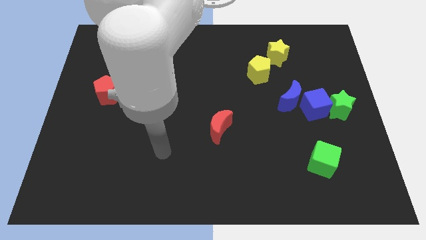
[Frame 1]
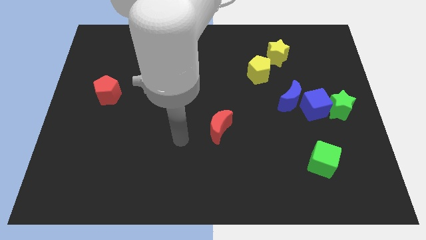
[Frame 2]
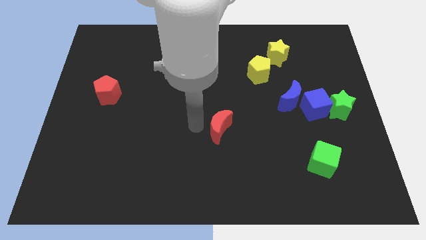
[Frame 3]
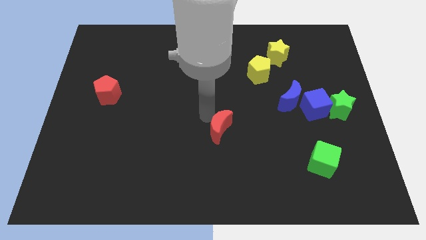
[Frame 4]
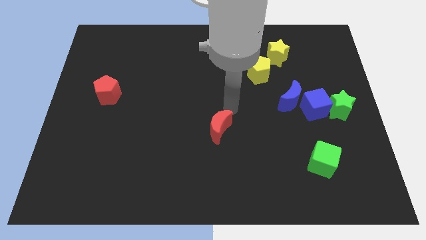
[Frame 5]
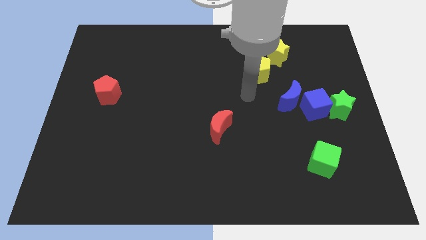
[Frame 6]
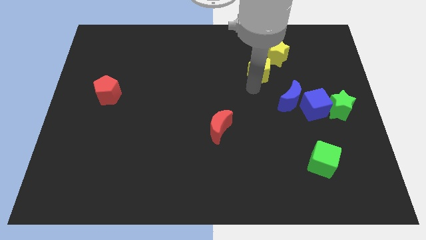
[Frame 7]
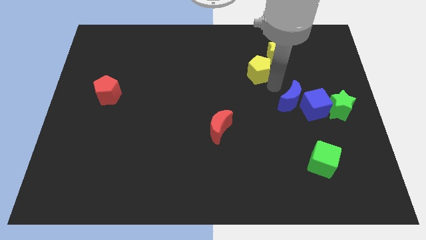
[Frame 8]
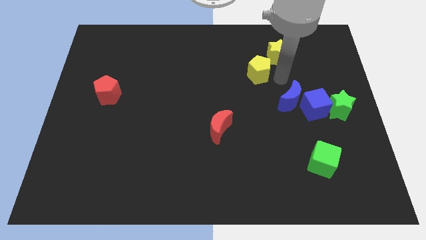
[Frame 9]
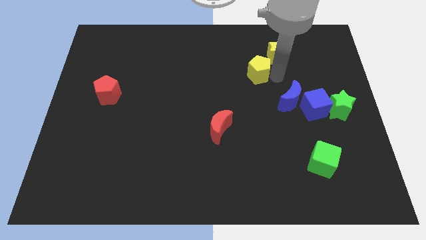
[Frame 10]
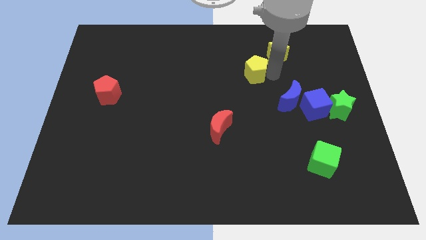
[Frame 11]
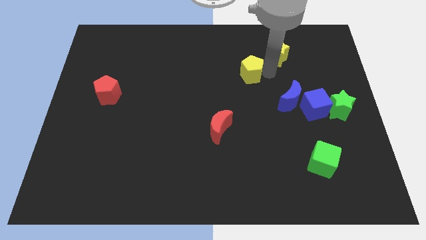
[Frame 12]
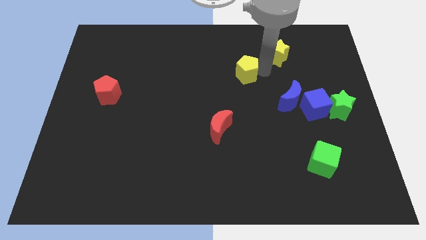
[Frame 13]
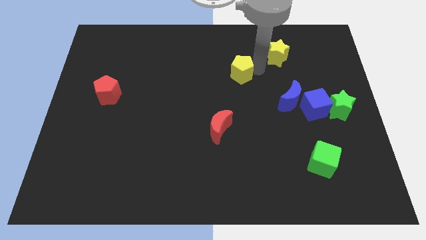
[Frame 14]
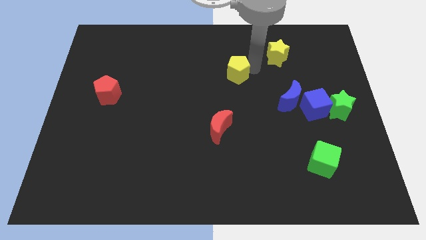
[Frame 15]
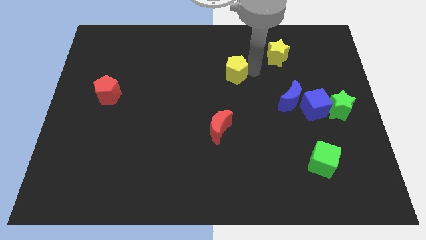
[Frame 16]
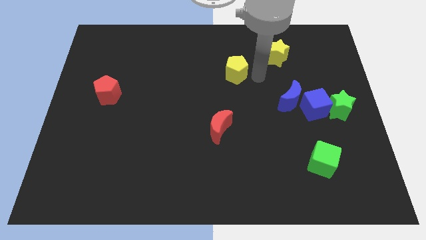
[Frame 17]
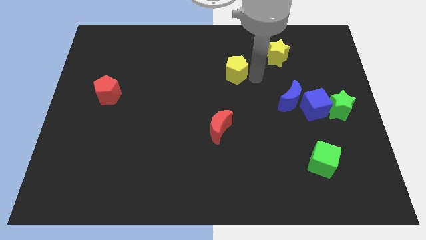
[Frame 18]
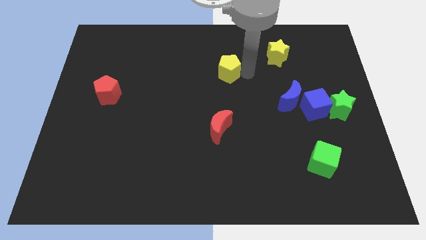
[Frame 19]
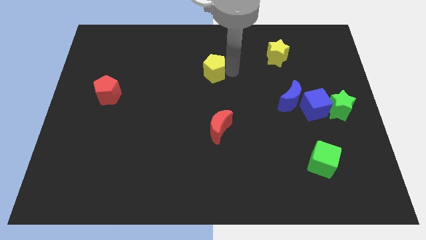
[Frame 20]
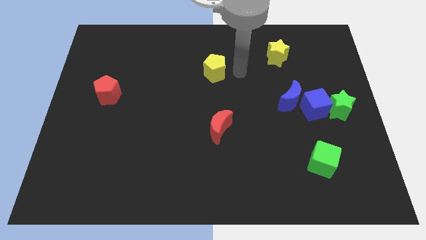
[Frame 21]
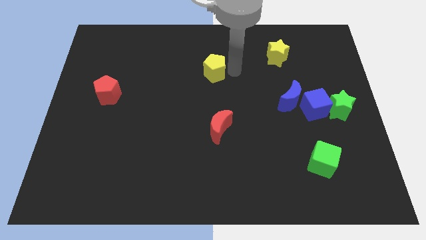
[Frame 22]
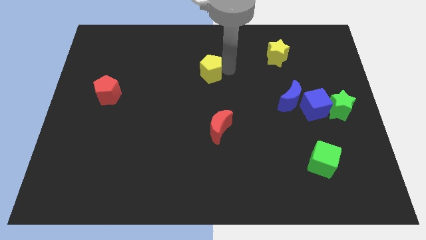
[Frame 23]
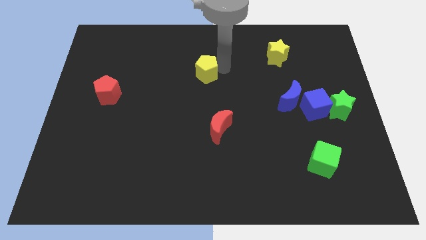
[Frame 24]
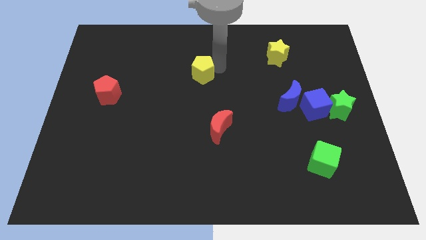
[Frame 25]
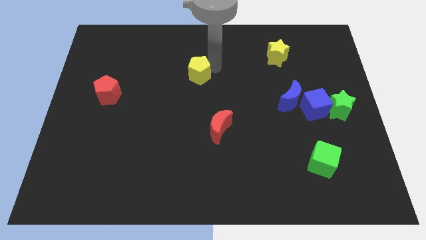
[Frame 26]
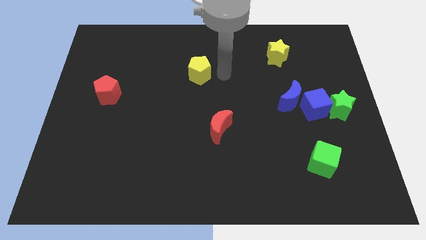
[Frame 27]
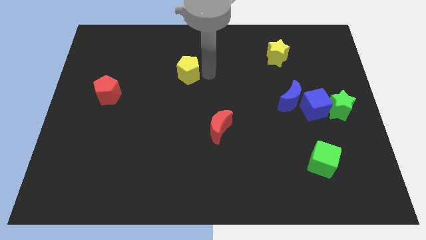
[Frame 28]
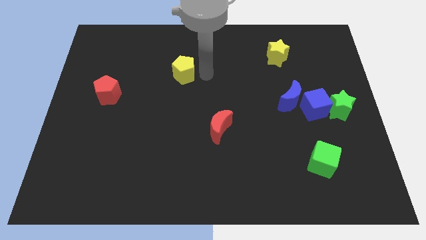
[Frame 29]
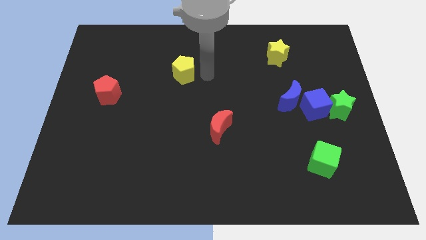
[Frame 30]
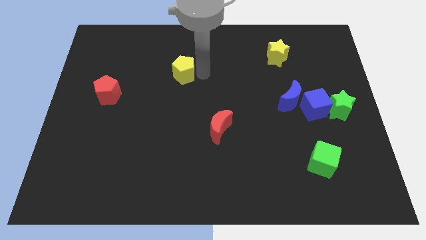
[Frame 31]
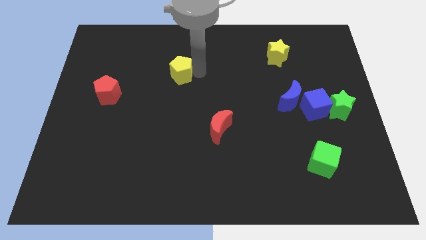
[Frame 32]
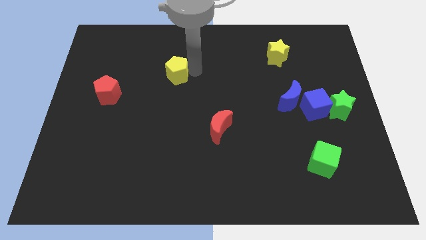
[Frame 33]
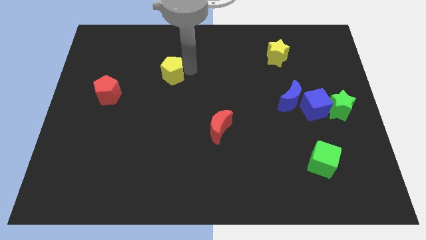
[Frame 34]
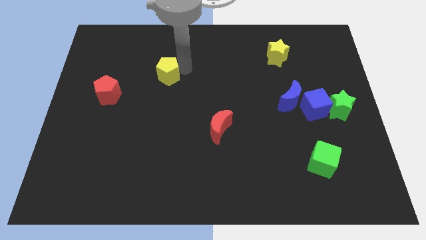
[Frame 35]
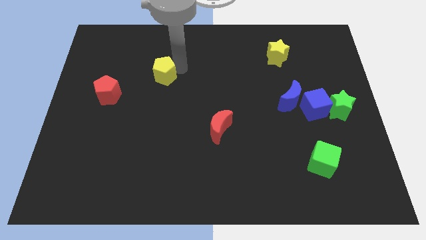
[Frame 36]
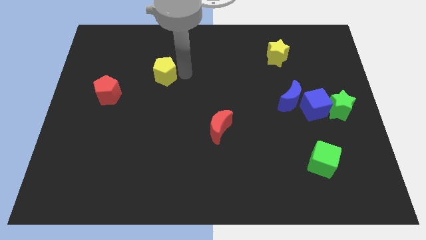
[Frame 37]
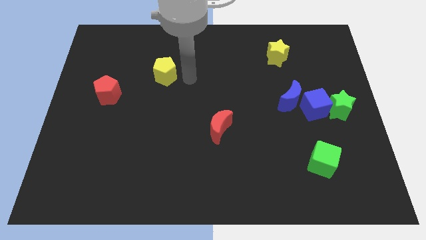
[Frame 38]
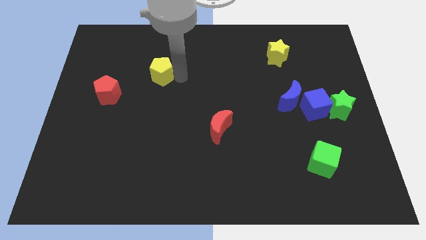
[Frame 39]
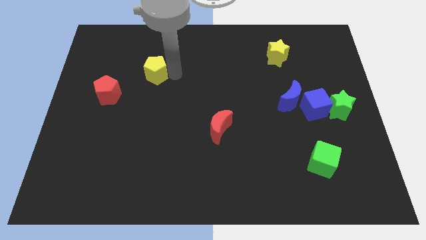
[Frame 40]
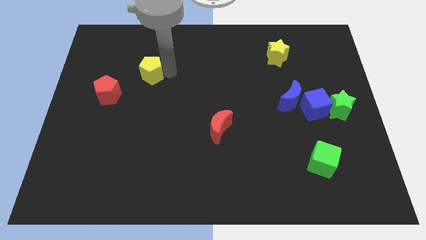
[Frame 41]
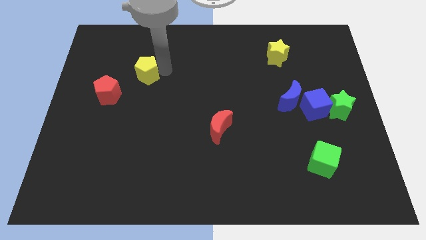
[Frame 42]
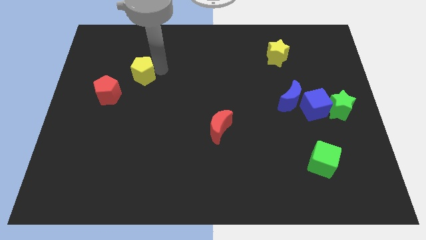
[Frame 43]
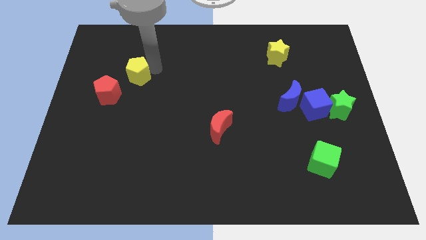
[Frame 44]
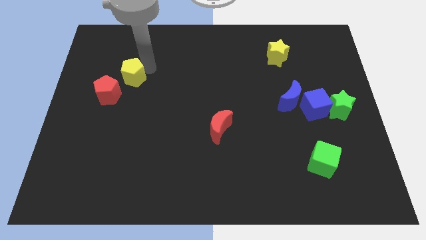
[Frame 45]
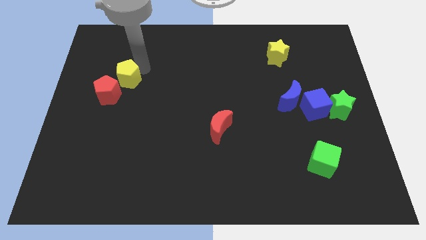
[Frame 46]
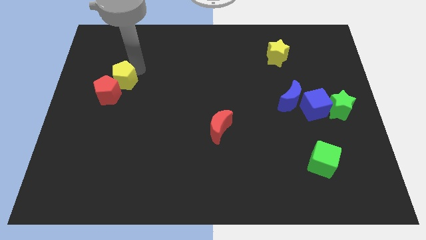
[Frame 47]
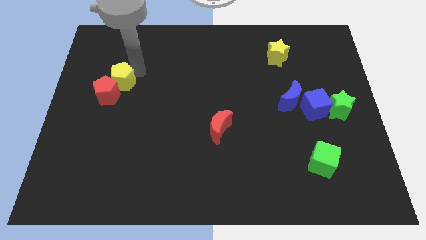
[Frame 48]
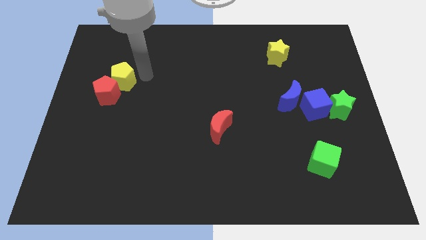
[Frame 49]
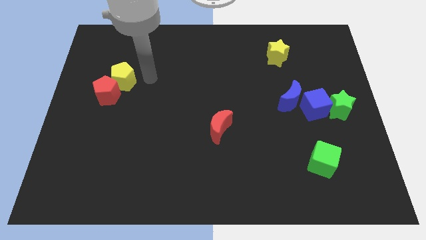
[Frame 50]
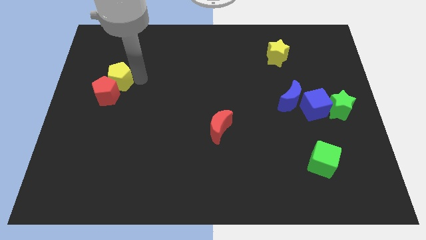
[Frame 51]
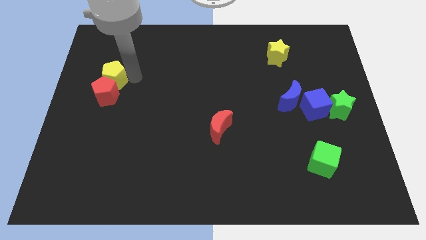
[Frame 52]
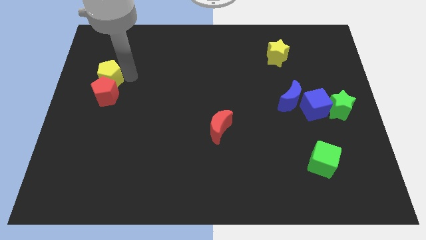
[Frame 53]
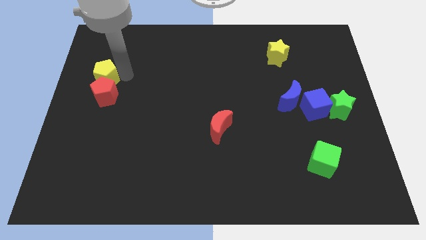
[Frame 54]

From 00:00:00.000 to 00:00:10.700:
push the yellow pentagon to the left side
